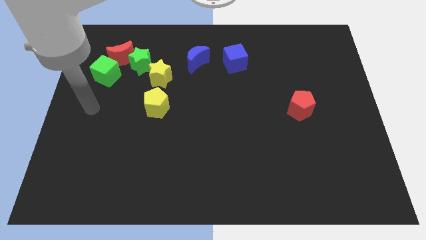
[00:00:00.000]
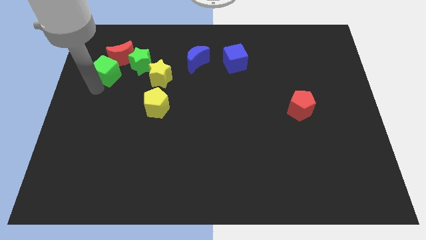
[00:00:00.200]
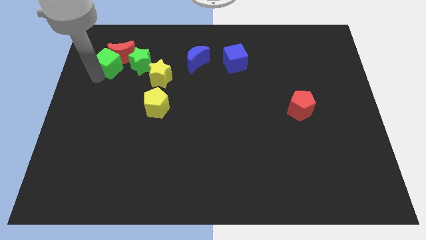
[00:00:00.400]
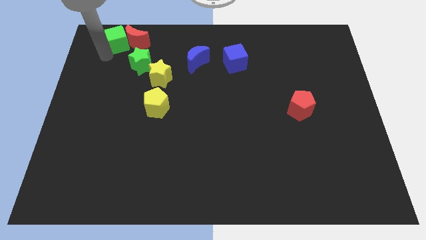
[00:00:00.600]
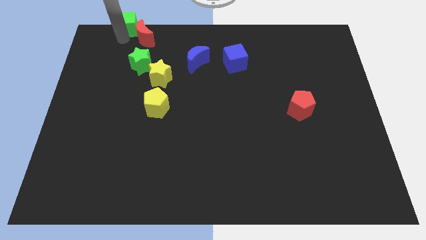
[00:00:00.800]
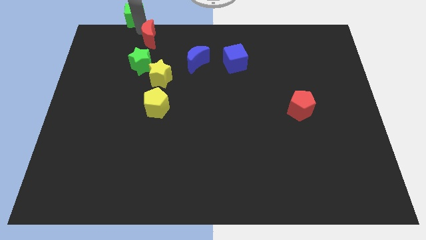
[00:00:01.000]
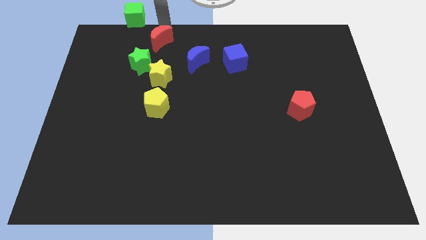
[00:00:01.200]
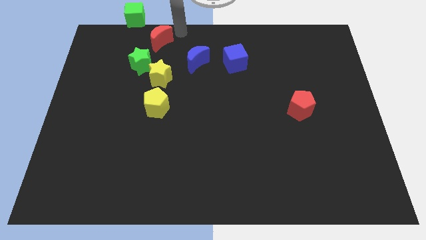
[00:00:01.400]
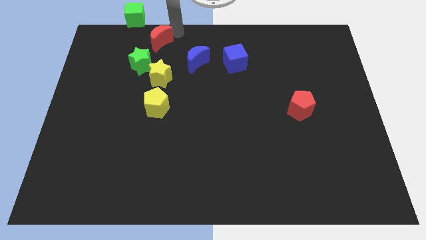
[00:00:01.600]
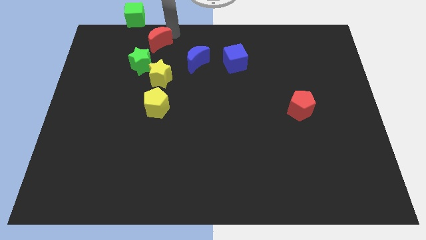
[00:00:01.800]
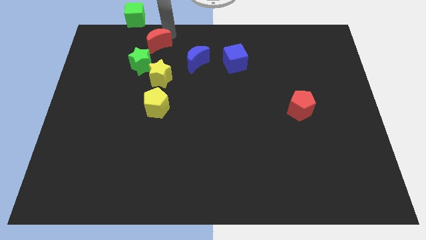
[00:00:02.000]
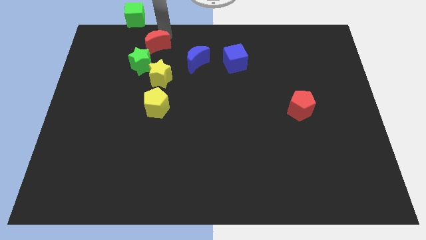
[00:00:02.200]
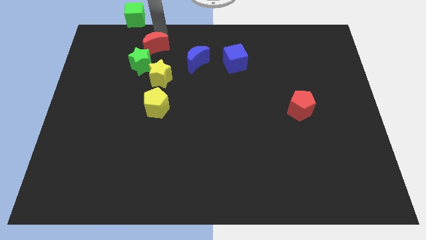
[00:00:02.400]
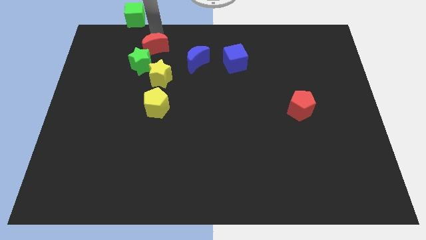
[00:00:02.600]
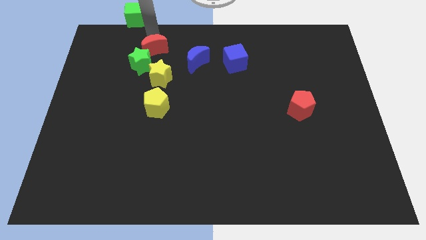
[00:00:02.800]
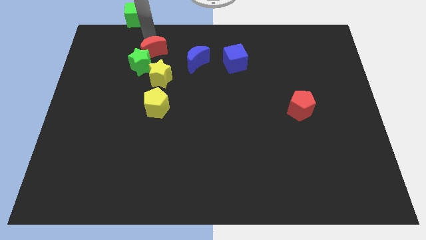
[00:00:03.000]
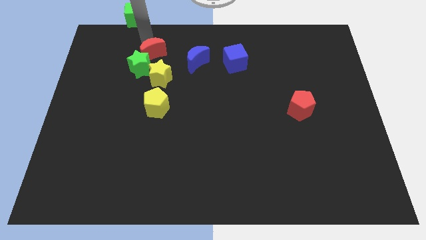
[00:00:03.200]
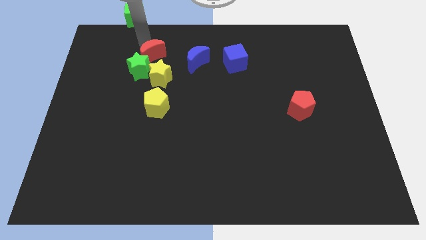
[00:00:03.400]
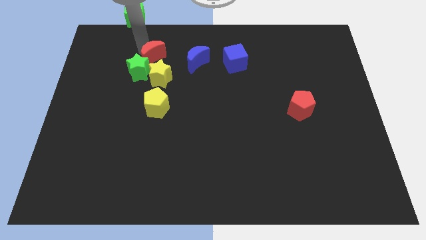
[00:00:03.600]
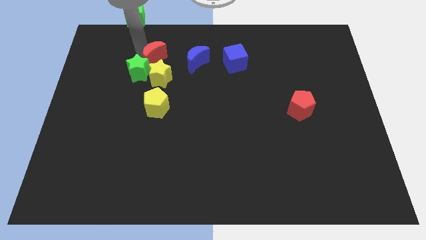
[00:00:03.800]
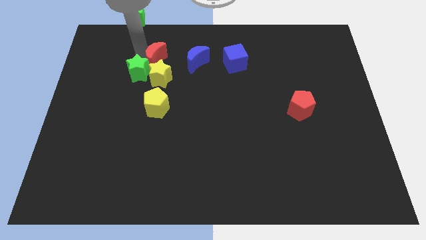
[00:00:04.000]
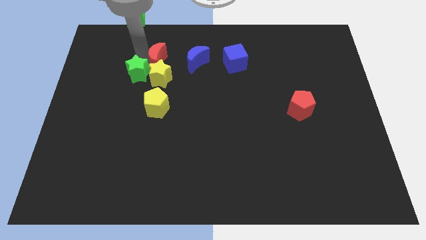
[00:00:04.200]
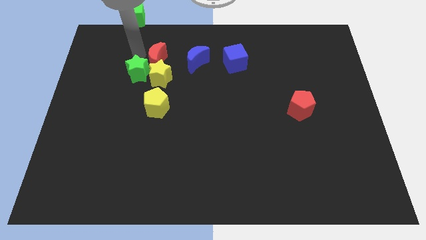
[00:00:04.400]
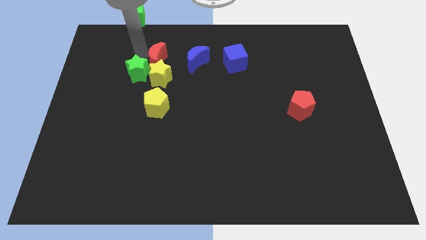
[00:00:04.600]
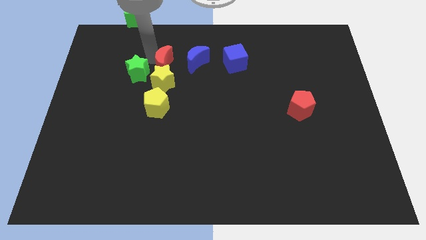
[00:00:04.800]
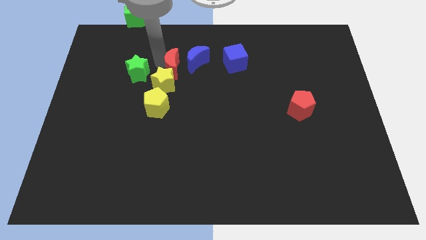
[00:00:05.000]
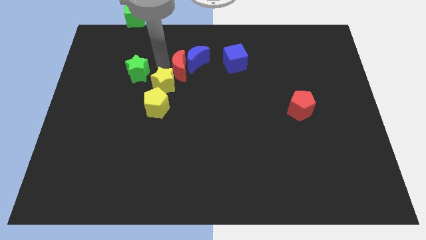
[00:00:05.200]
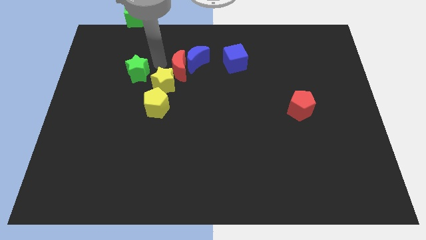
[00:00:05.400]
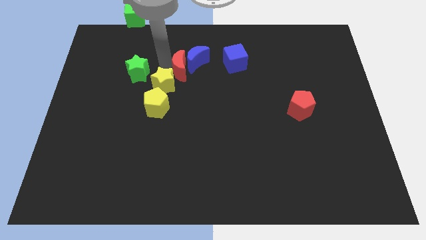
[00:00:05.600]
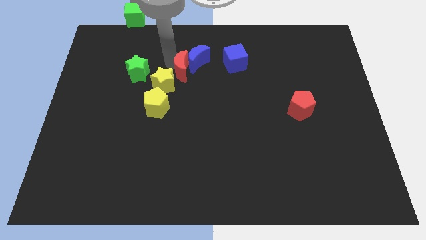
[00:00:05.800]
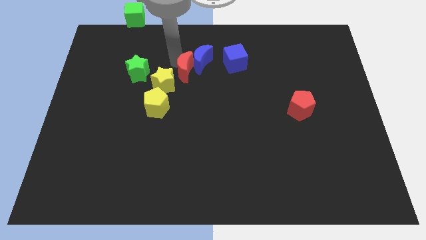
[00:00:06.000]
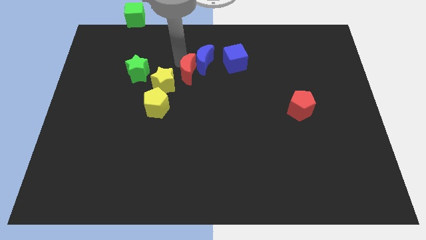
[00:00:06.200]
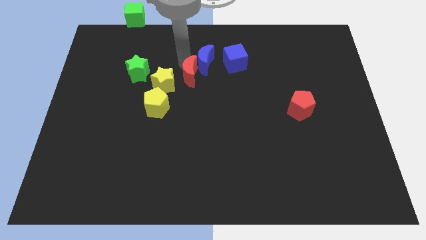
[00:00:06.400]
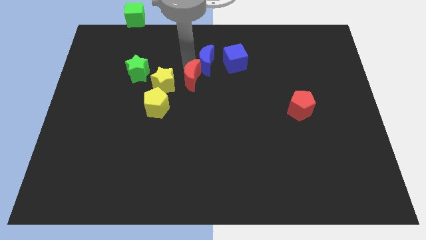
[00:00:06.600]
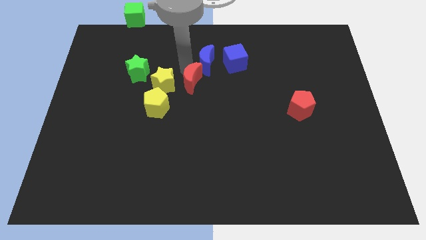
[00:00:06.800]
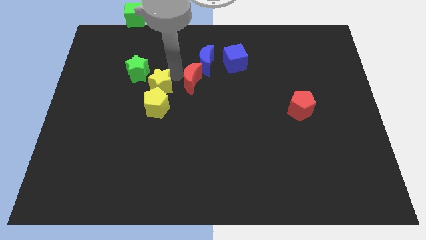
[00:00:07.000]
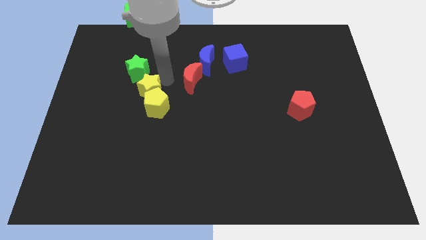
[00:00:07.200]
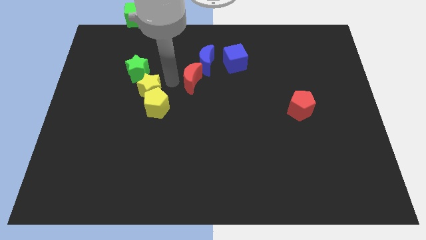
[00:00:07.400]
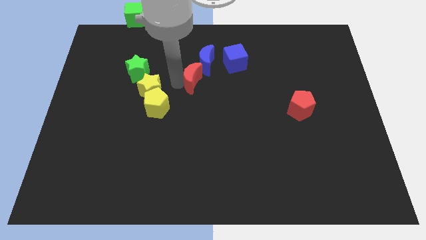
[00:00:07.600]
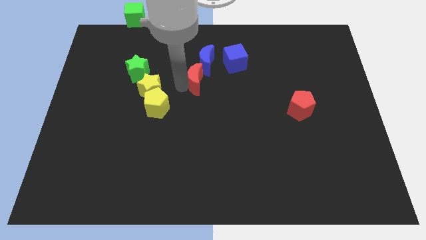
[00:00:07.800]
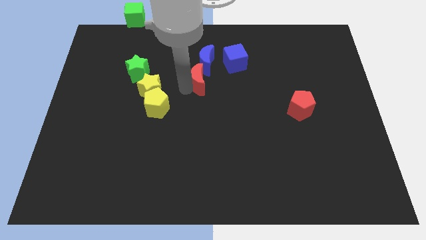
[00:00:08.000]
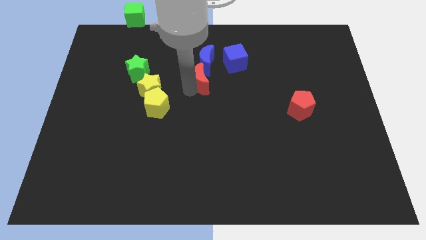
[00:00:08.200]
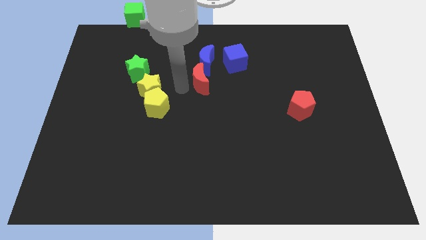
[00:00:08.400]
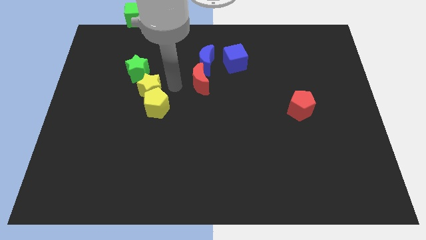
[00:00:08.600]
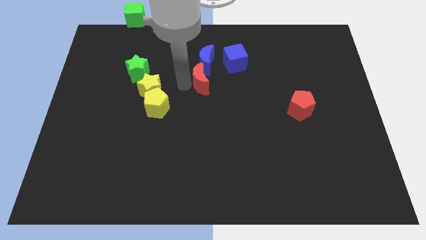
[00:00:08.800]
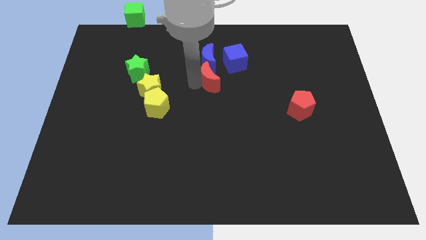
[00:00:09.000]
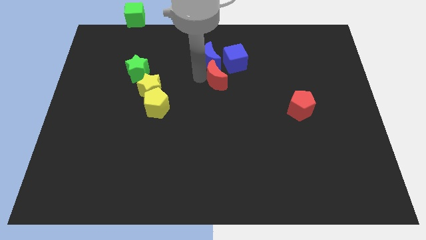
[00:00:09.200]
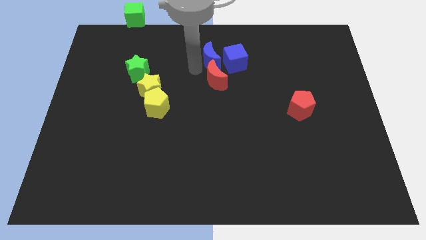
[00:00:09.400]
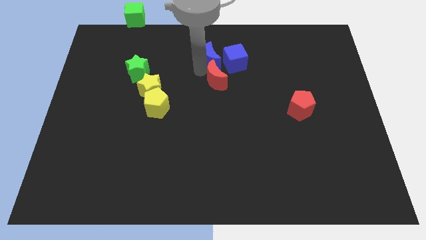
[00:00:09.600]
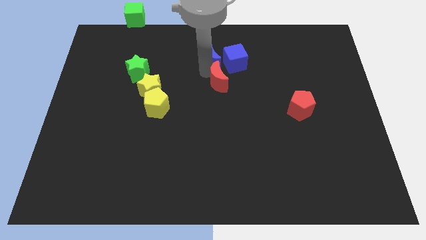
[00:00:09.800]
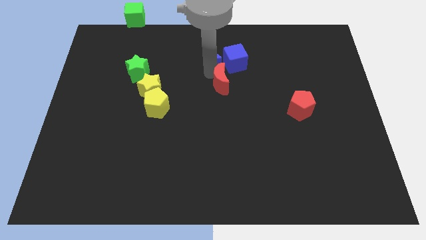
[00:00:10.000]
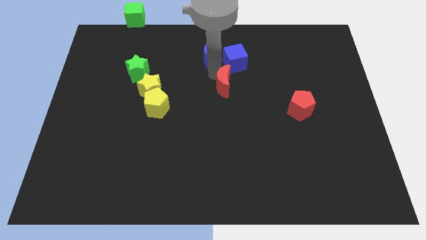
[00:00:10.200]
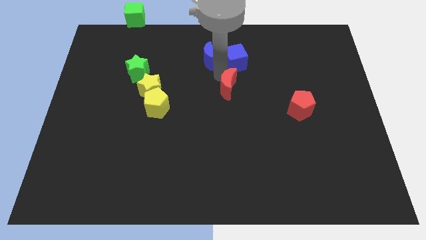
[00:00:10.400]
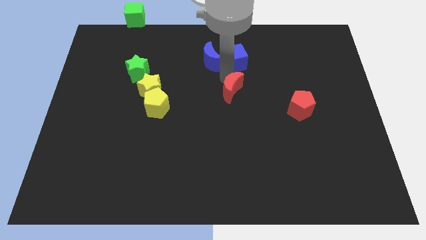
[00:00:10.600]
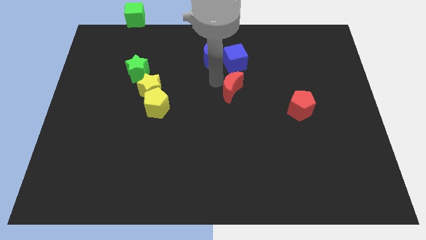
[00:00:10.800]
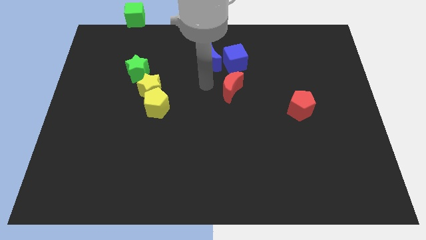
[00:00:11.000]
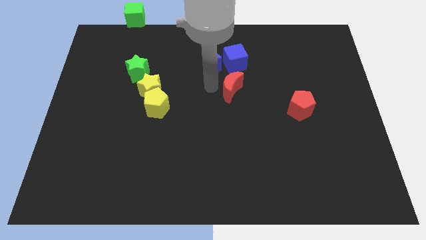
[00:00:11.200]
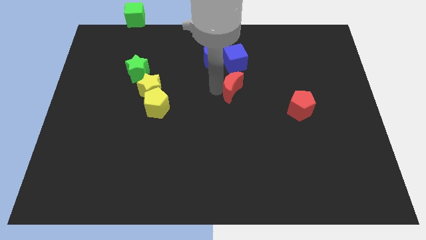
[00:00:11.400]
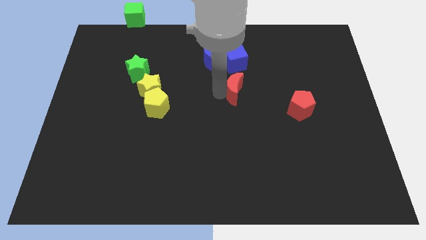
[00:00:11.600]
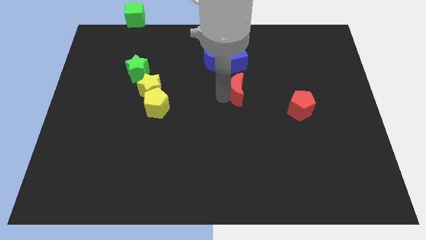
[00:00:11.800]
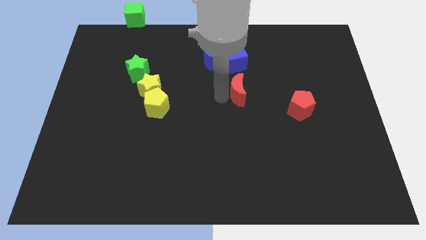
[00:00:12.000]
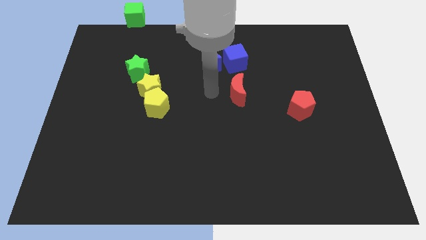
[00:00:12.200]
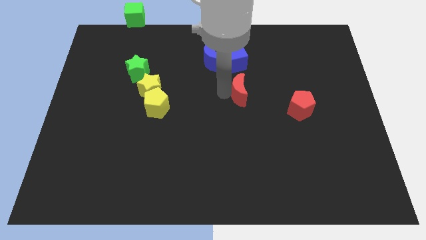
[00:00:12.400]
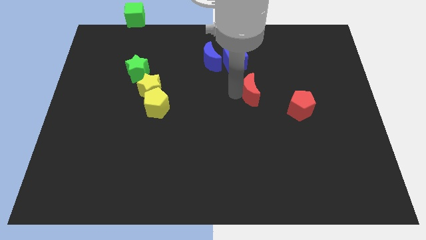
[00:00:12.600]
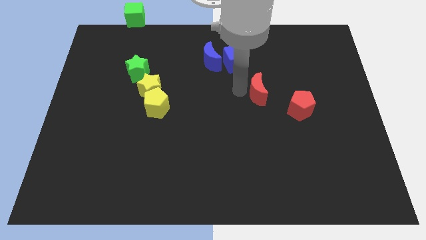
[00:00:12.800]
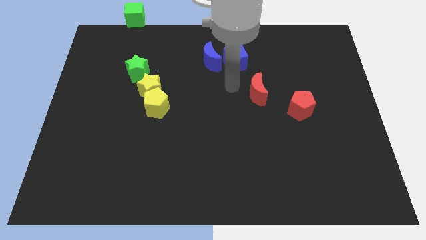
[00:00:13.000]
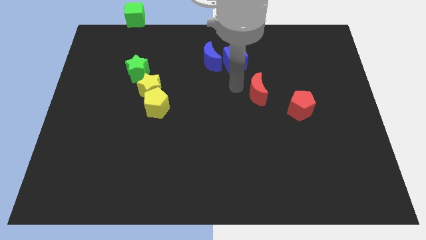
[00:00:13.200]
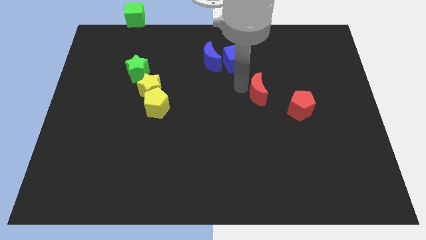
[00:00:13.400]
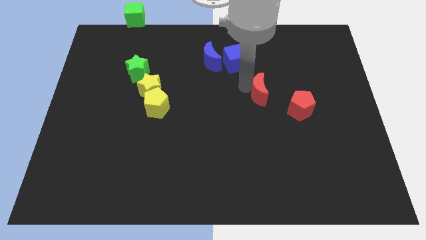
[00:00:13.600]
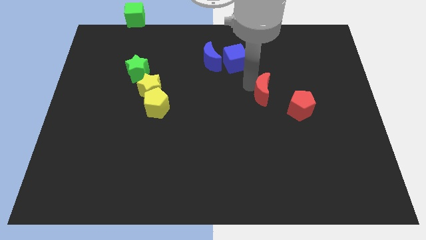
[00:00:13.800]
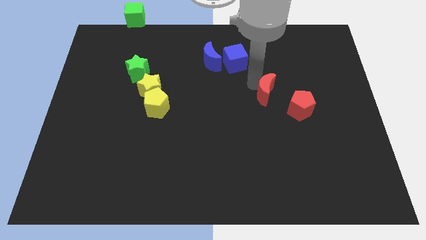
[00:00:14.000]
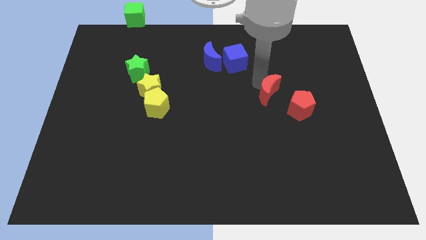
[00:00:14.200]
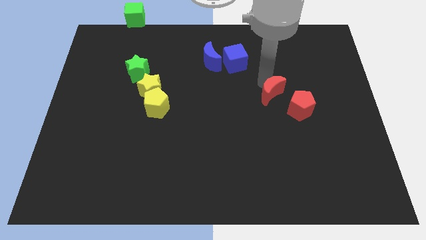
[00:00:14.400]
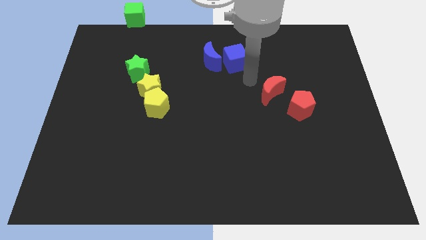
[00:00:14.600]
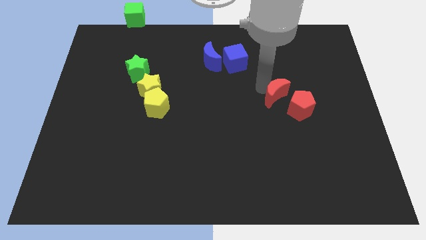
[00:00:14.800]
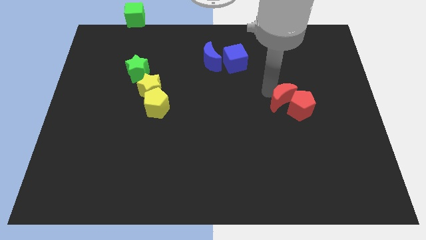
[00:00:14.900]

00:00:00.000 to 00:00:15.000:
push the red moon close to the red pentagon
